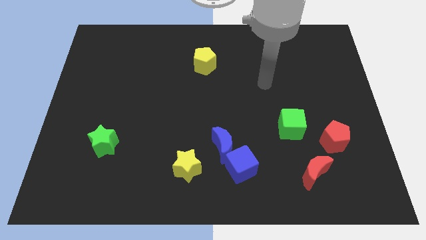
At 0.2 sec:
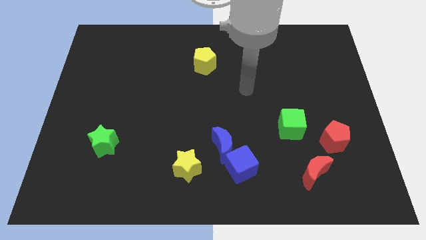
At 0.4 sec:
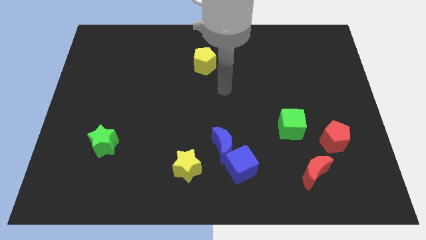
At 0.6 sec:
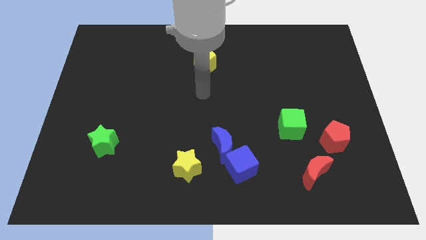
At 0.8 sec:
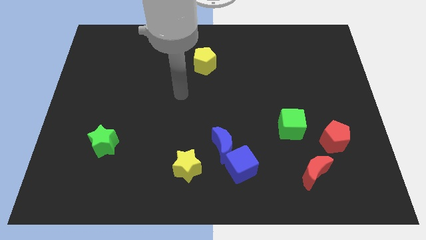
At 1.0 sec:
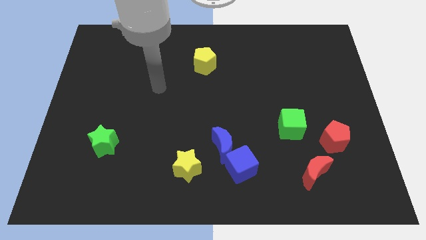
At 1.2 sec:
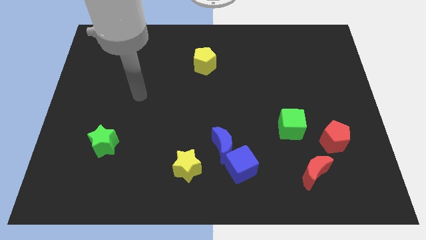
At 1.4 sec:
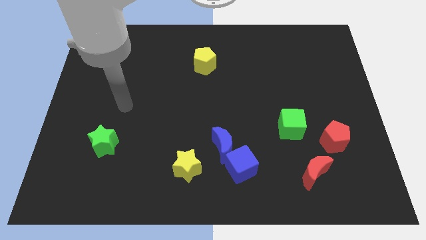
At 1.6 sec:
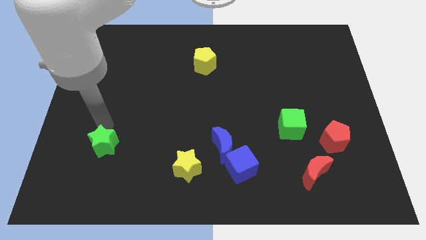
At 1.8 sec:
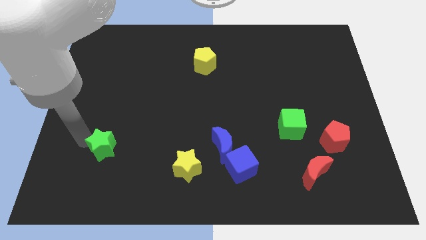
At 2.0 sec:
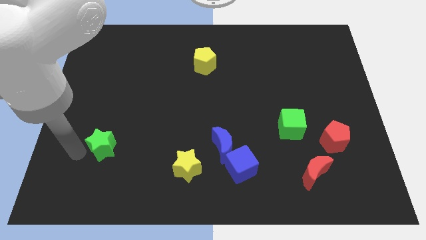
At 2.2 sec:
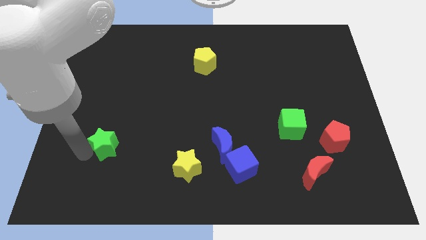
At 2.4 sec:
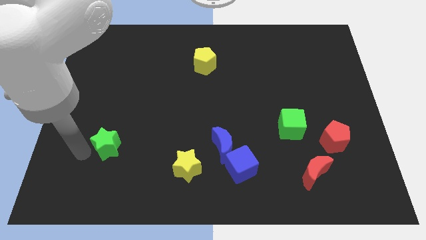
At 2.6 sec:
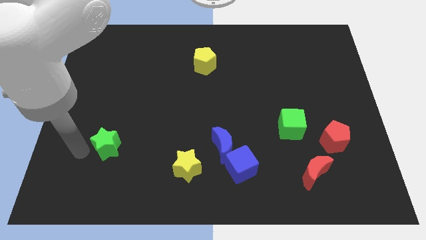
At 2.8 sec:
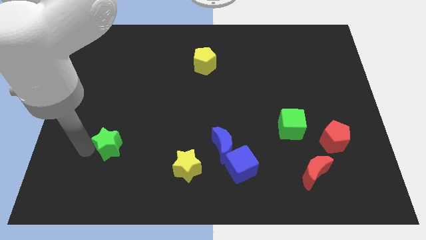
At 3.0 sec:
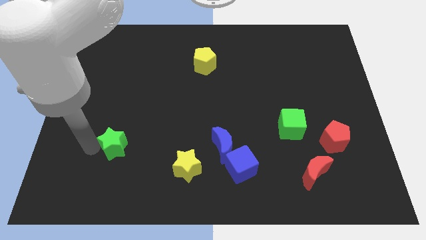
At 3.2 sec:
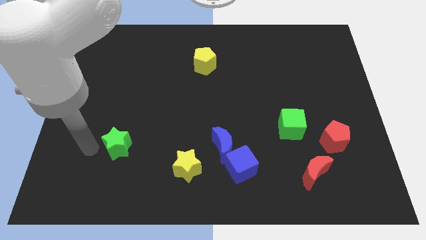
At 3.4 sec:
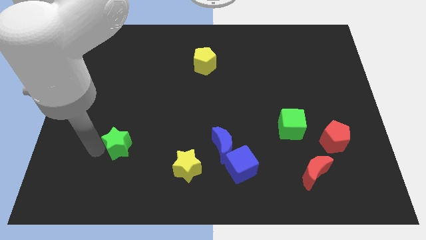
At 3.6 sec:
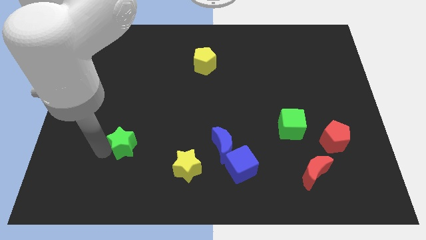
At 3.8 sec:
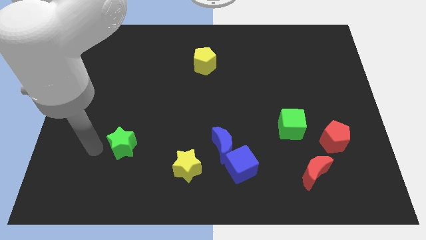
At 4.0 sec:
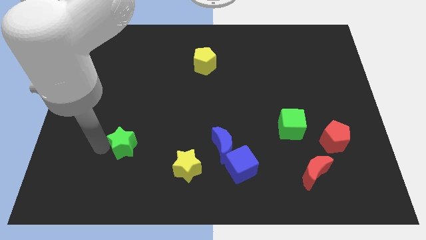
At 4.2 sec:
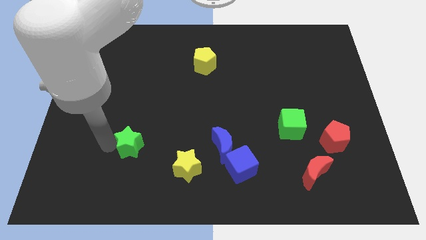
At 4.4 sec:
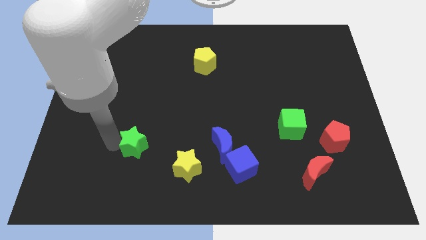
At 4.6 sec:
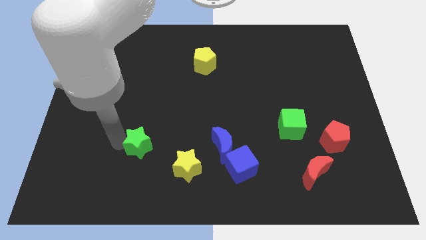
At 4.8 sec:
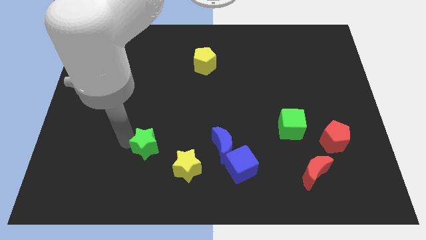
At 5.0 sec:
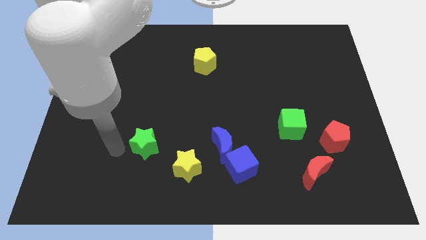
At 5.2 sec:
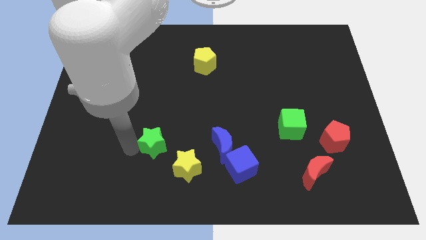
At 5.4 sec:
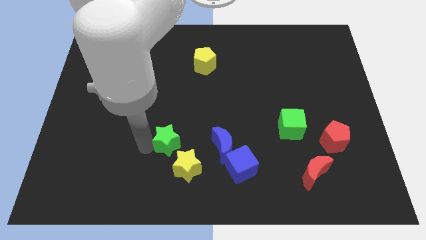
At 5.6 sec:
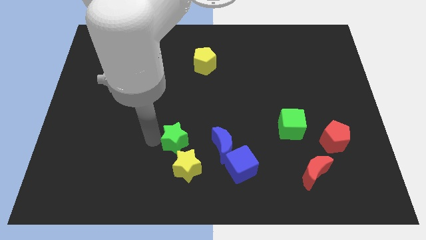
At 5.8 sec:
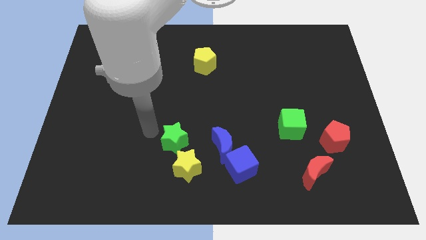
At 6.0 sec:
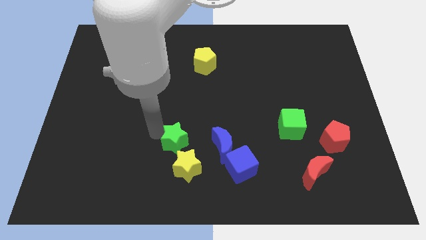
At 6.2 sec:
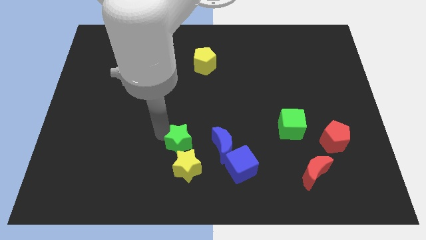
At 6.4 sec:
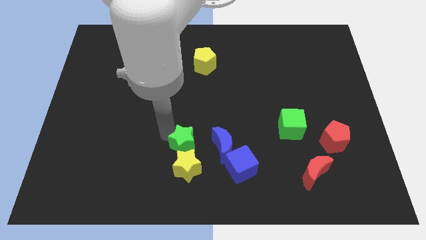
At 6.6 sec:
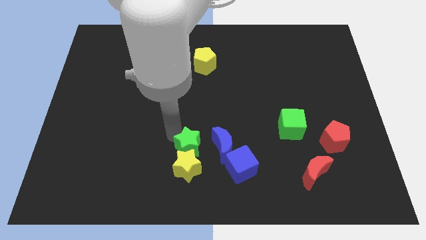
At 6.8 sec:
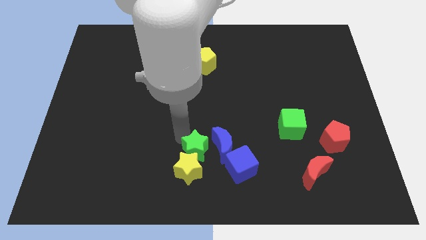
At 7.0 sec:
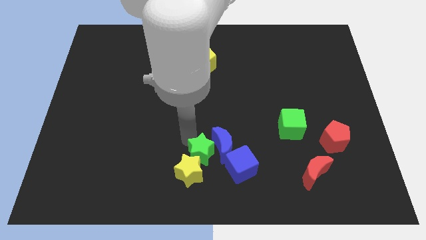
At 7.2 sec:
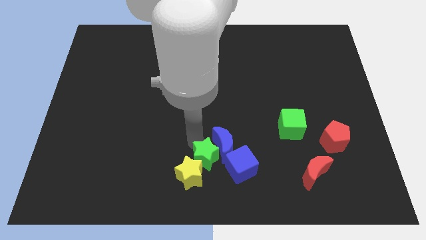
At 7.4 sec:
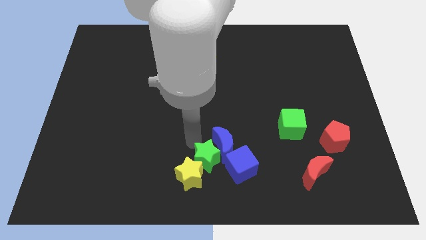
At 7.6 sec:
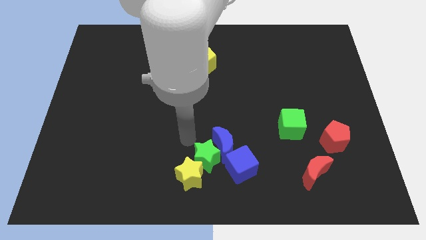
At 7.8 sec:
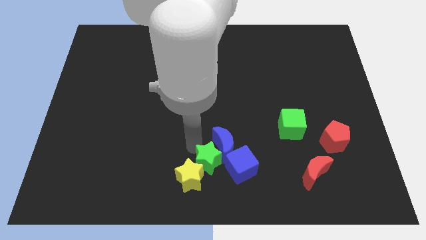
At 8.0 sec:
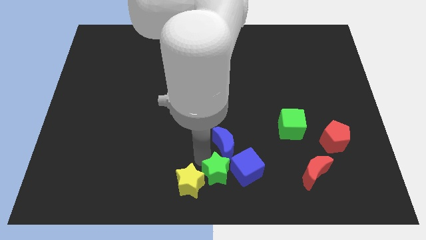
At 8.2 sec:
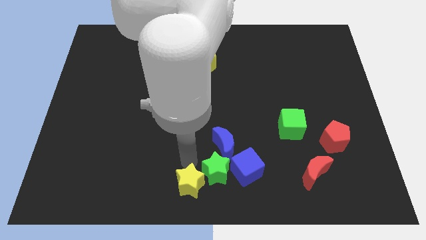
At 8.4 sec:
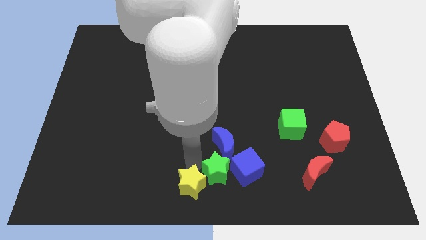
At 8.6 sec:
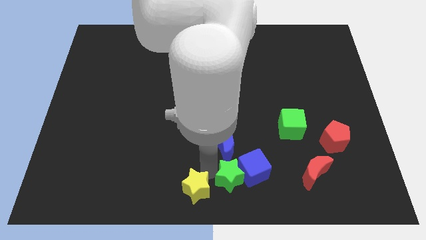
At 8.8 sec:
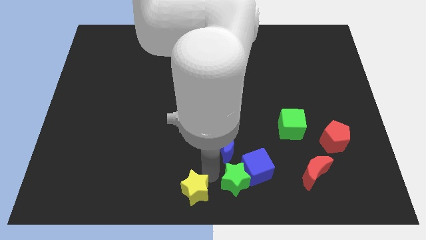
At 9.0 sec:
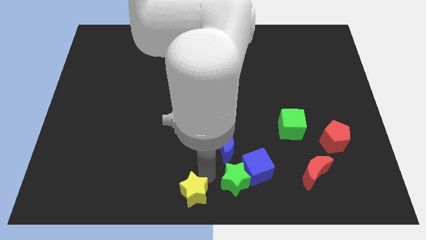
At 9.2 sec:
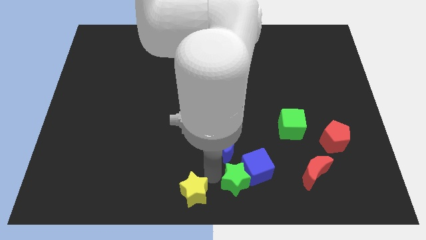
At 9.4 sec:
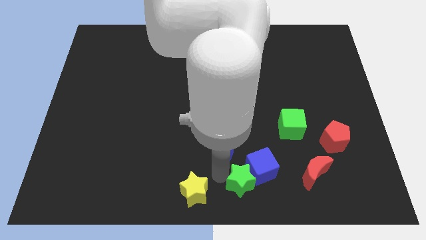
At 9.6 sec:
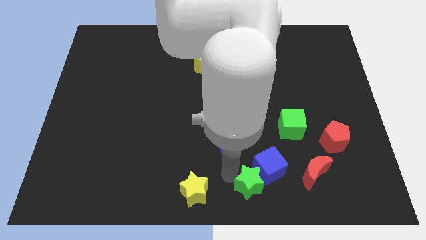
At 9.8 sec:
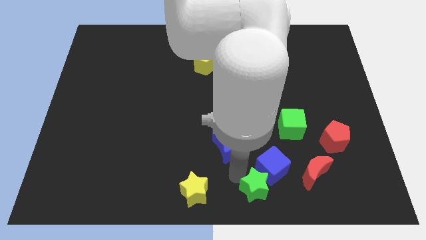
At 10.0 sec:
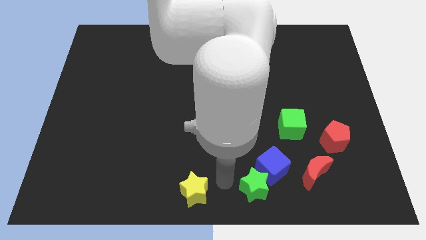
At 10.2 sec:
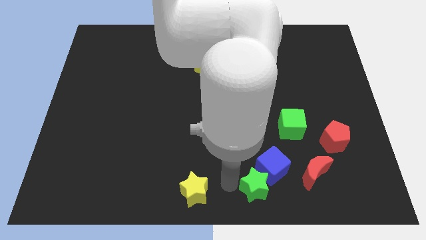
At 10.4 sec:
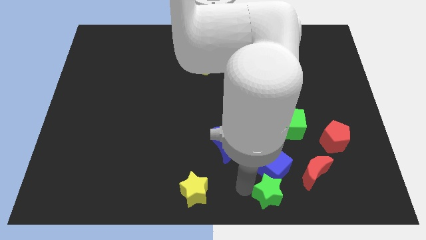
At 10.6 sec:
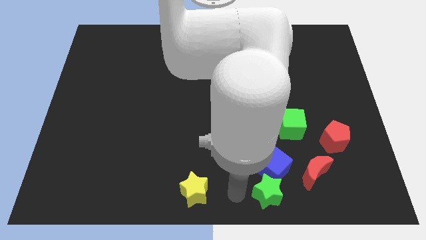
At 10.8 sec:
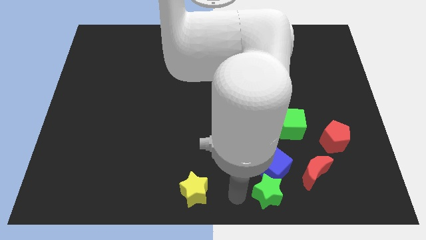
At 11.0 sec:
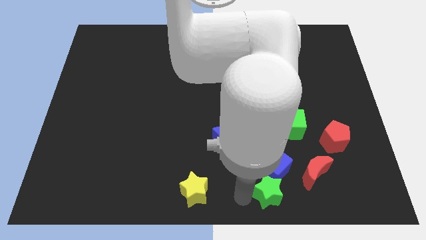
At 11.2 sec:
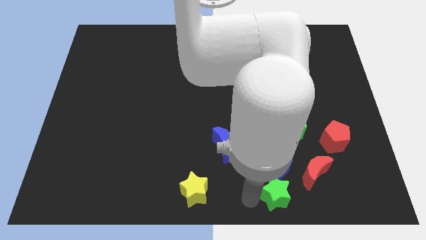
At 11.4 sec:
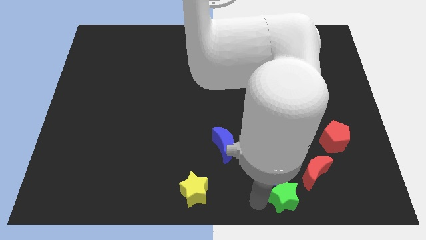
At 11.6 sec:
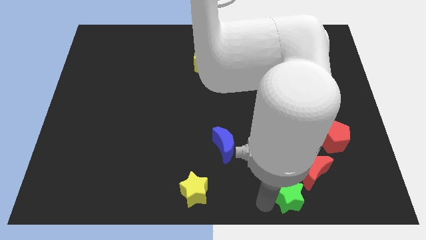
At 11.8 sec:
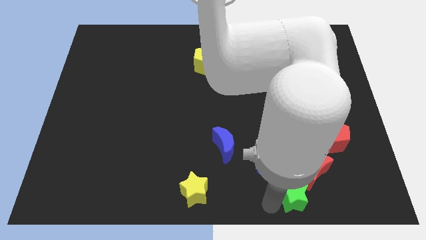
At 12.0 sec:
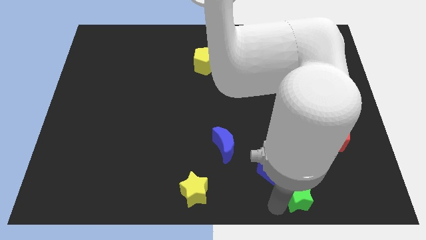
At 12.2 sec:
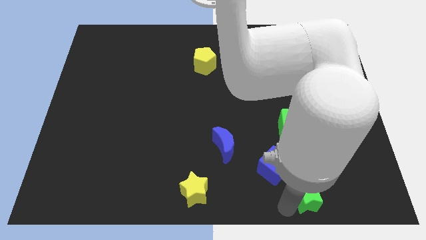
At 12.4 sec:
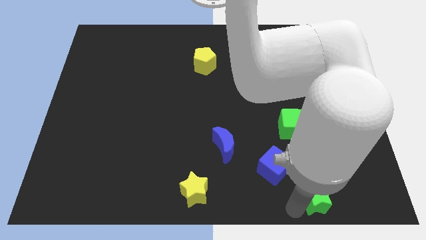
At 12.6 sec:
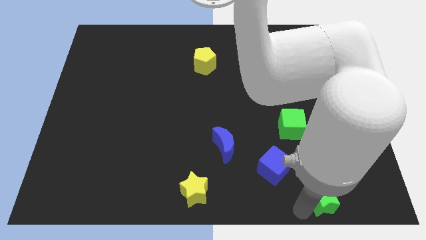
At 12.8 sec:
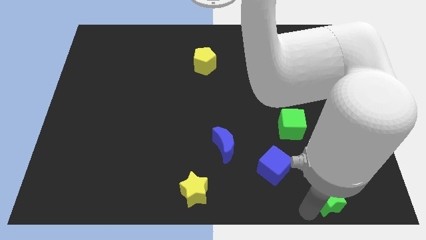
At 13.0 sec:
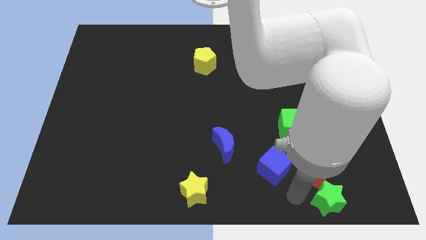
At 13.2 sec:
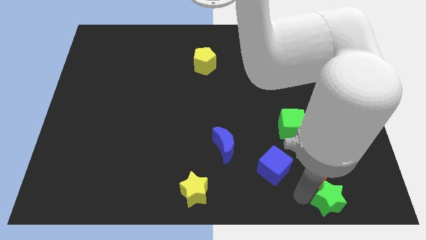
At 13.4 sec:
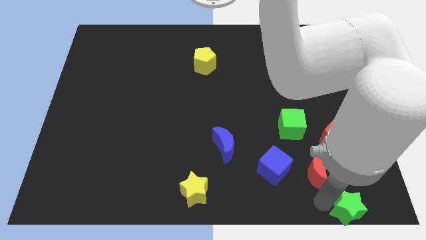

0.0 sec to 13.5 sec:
move the green star to the bottom right corner
